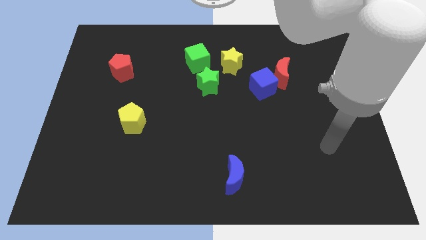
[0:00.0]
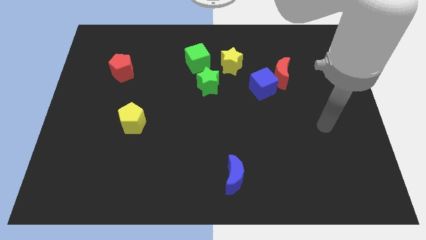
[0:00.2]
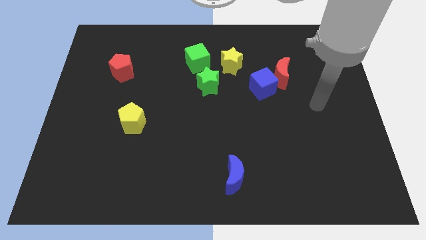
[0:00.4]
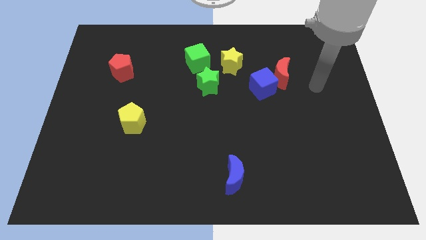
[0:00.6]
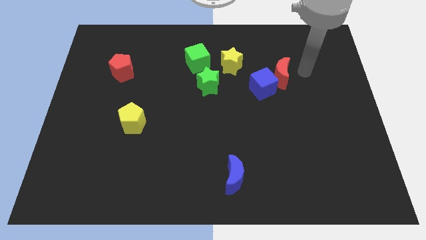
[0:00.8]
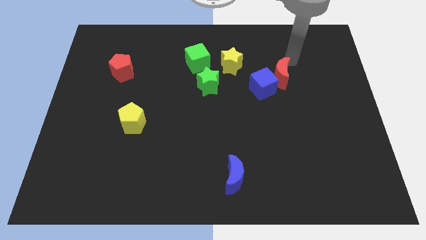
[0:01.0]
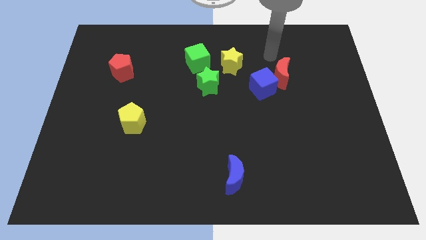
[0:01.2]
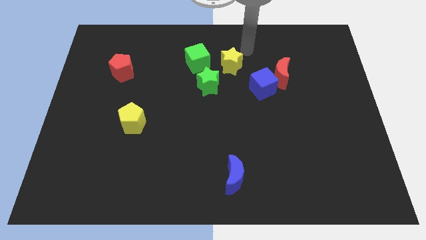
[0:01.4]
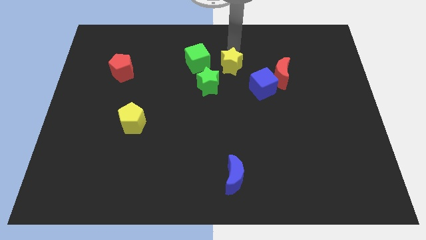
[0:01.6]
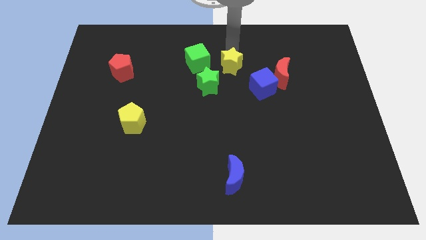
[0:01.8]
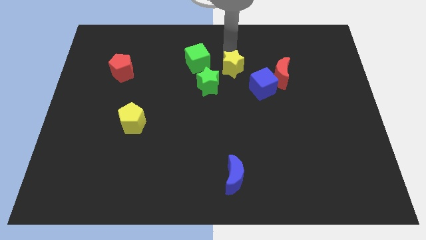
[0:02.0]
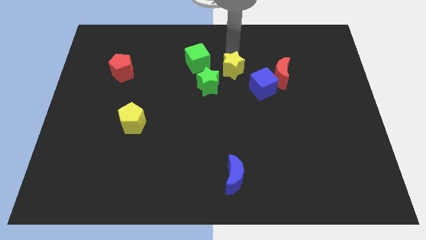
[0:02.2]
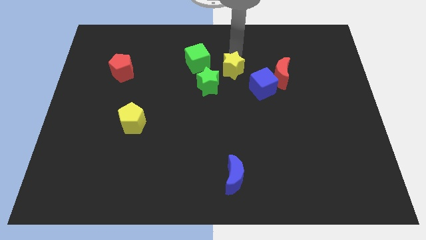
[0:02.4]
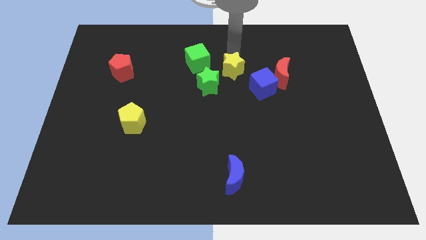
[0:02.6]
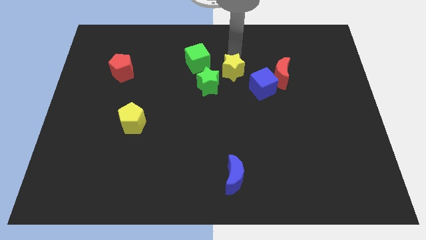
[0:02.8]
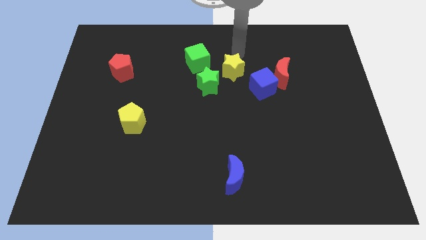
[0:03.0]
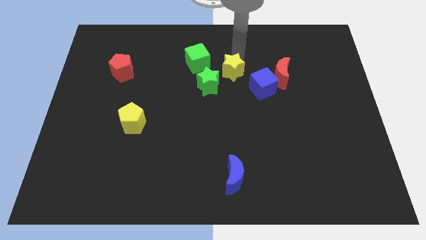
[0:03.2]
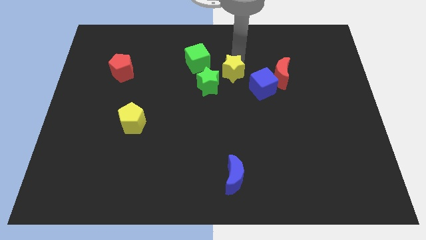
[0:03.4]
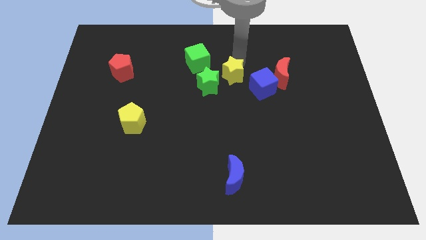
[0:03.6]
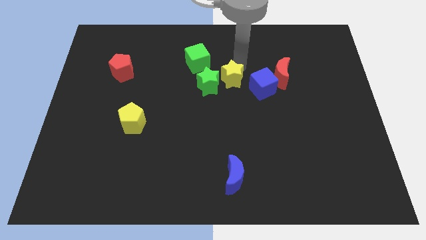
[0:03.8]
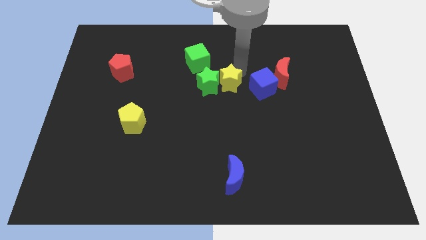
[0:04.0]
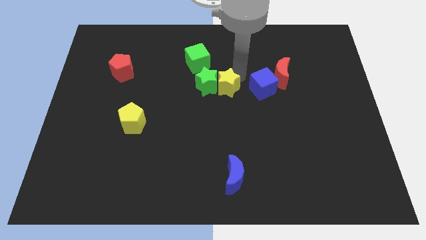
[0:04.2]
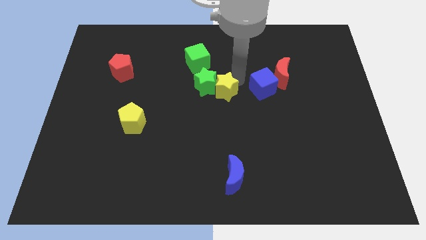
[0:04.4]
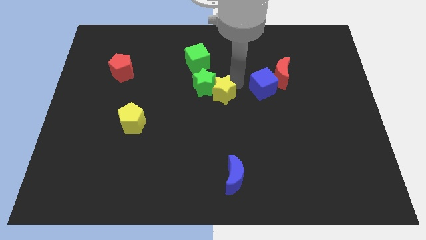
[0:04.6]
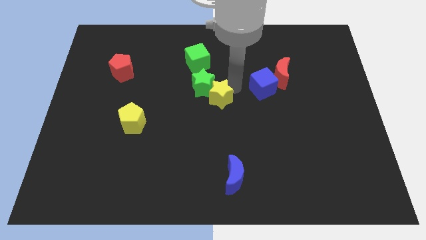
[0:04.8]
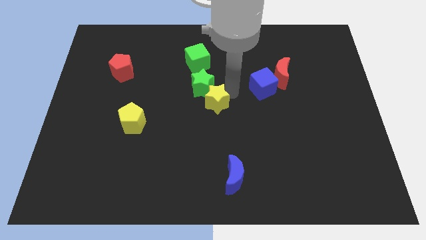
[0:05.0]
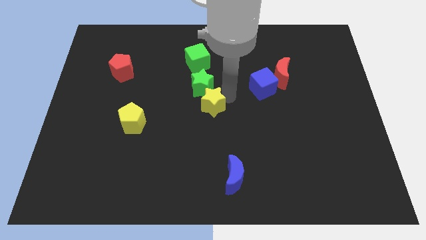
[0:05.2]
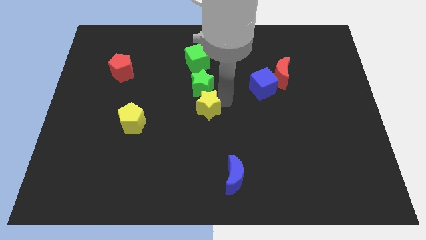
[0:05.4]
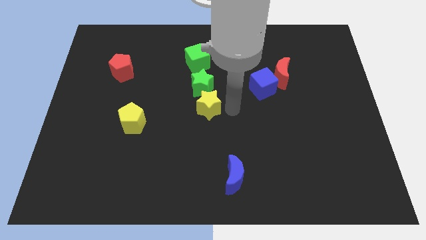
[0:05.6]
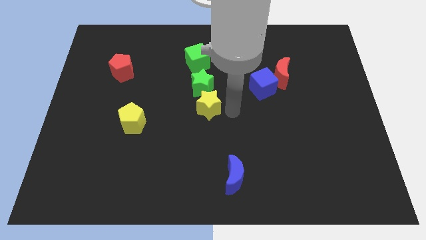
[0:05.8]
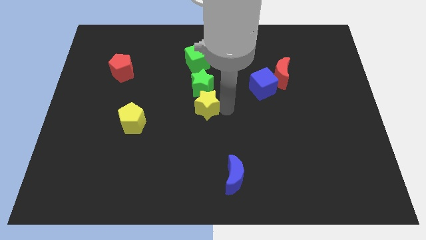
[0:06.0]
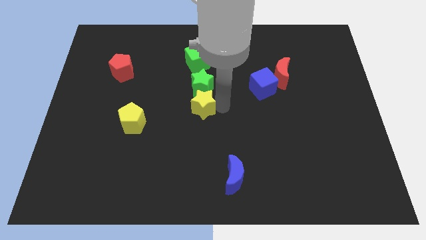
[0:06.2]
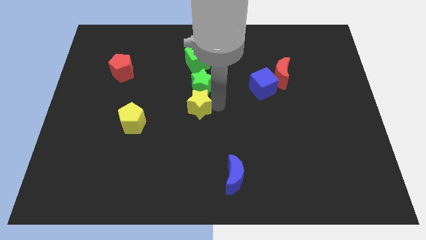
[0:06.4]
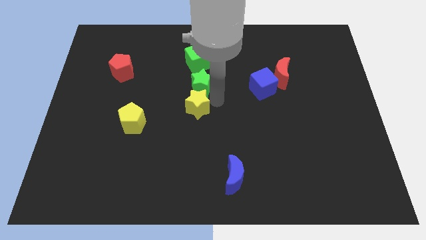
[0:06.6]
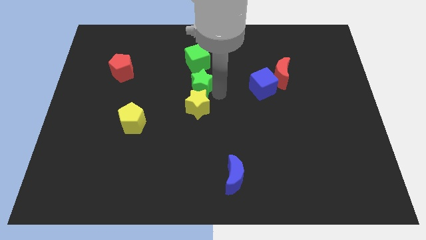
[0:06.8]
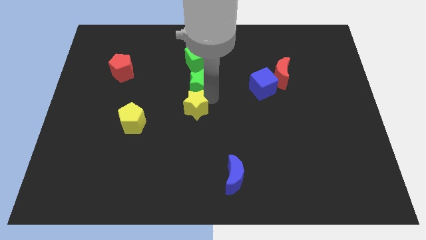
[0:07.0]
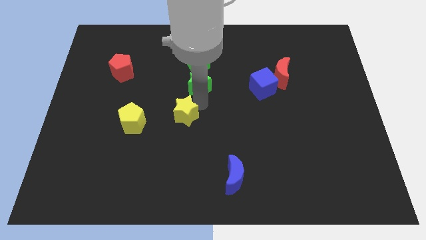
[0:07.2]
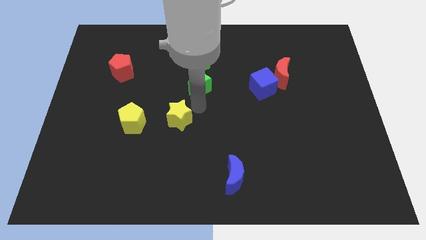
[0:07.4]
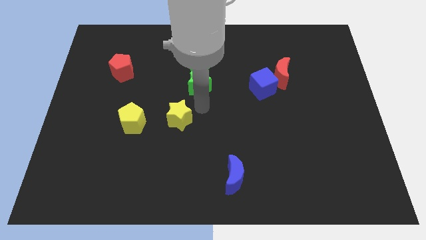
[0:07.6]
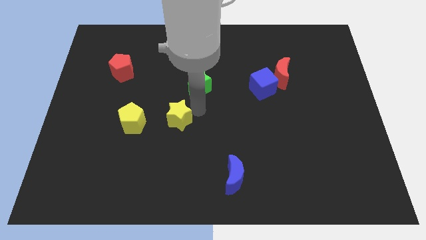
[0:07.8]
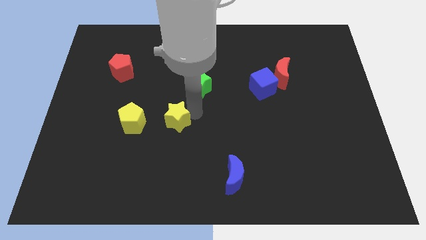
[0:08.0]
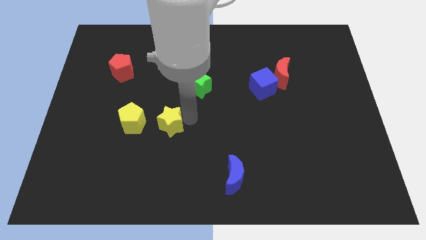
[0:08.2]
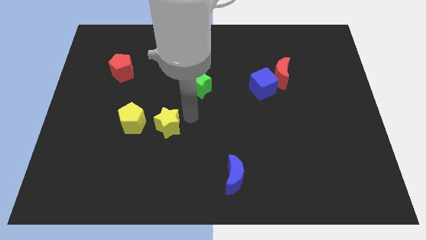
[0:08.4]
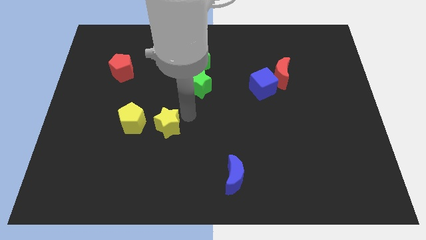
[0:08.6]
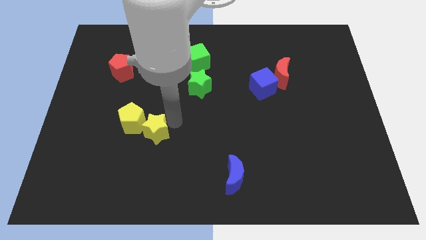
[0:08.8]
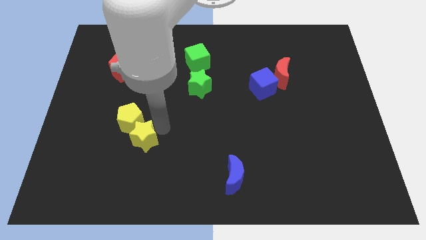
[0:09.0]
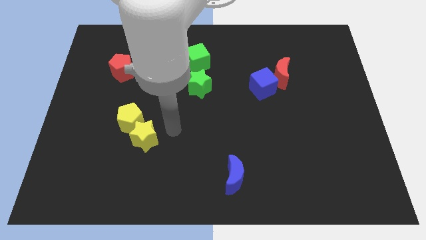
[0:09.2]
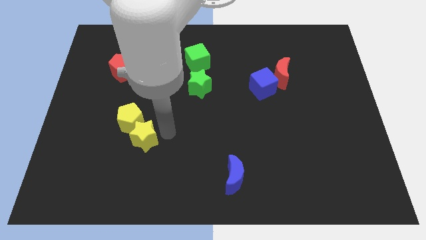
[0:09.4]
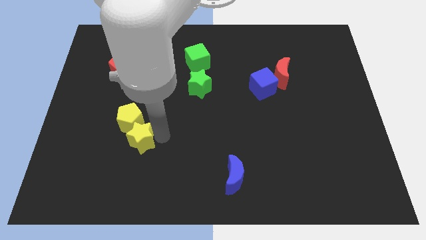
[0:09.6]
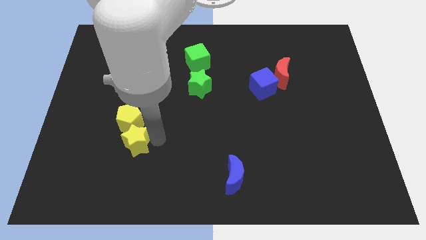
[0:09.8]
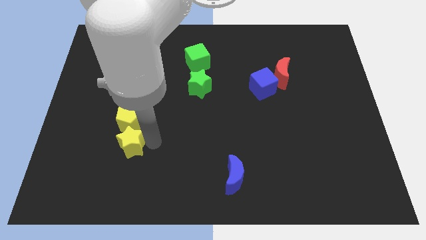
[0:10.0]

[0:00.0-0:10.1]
push the yellow star diagonally down and to the left of the yellow pentagon

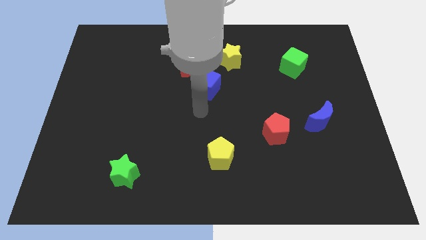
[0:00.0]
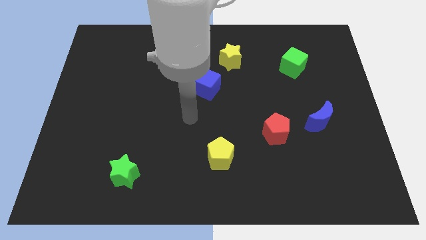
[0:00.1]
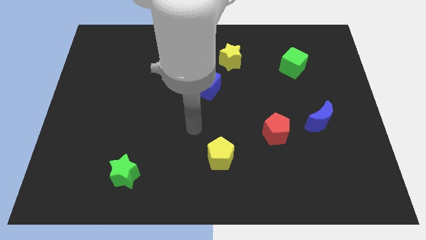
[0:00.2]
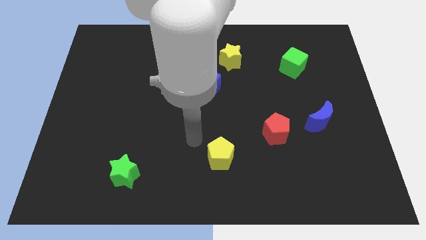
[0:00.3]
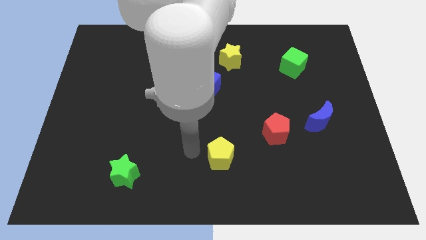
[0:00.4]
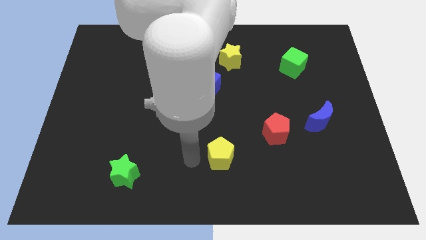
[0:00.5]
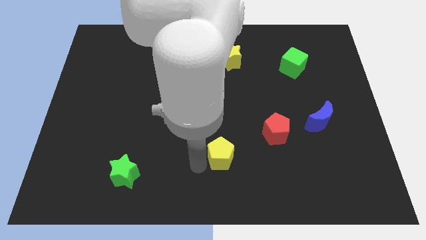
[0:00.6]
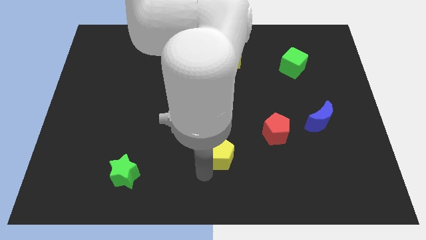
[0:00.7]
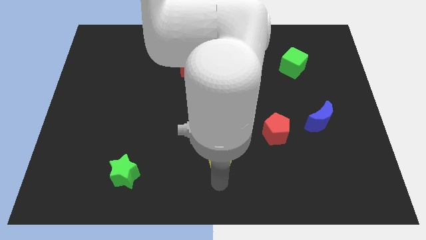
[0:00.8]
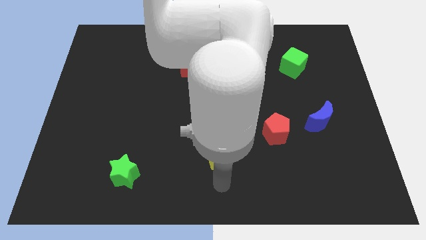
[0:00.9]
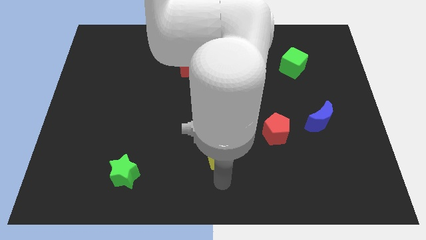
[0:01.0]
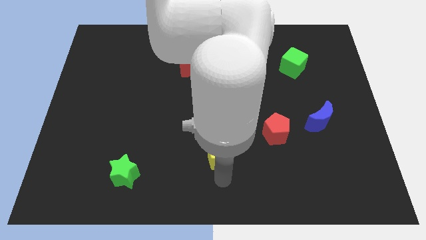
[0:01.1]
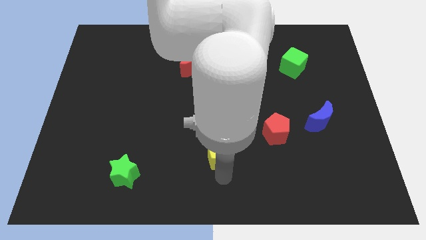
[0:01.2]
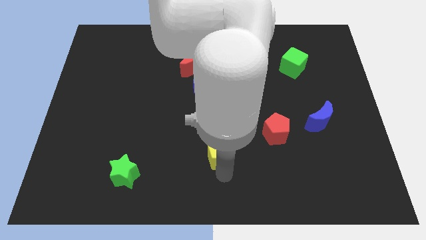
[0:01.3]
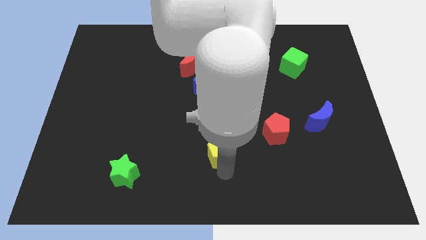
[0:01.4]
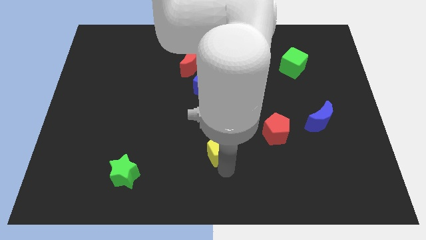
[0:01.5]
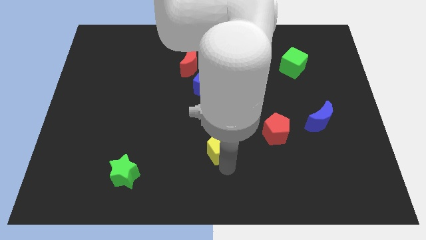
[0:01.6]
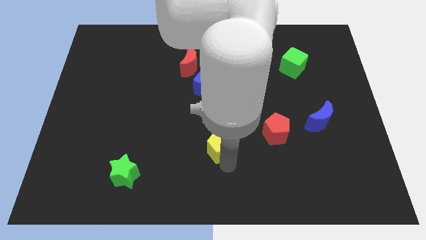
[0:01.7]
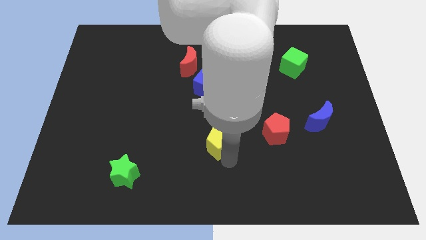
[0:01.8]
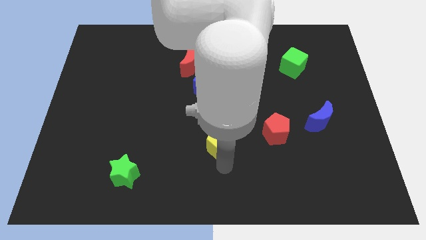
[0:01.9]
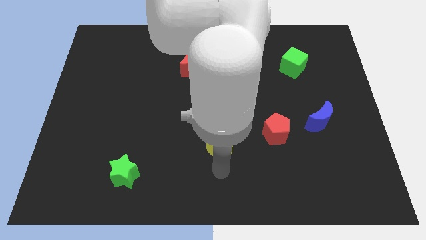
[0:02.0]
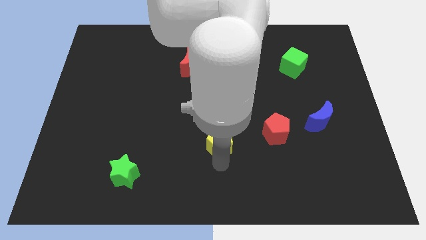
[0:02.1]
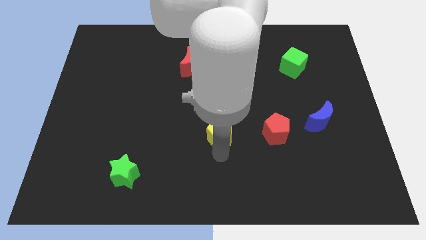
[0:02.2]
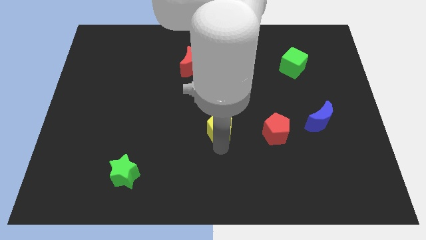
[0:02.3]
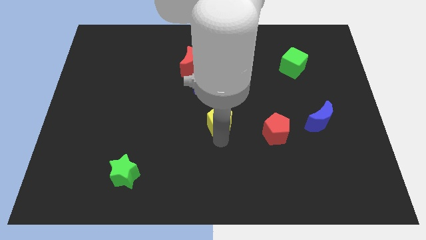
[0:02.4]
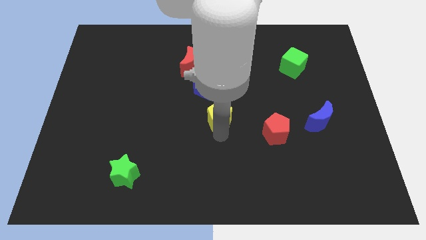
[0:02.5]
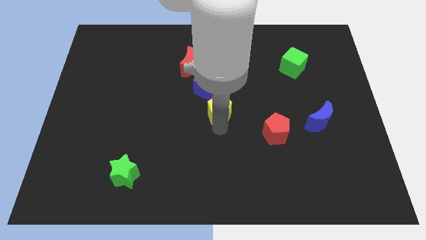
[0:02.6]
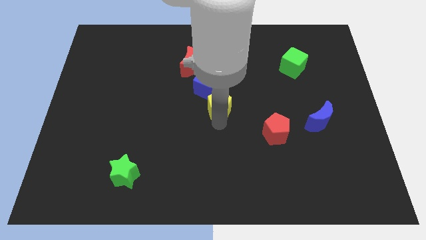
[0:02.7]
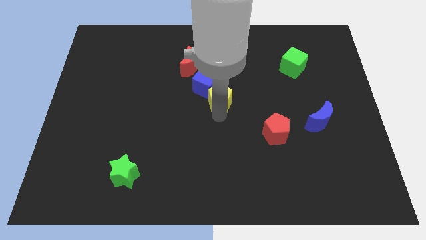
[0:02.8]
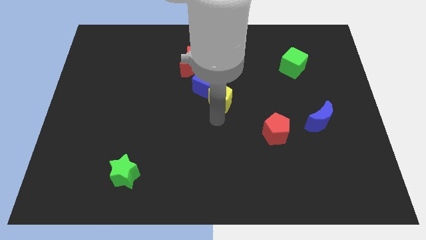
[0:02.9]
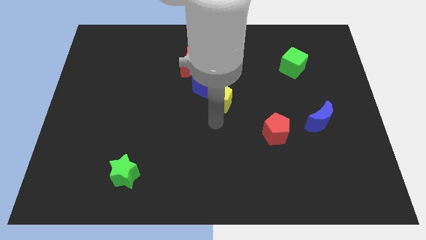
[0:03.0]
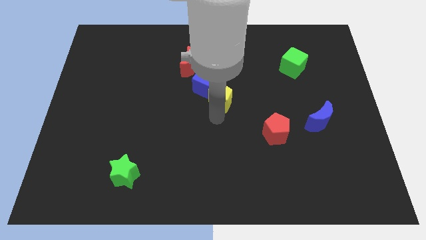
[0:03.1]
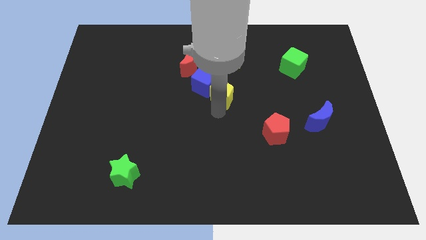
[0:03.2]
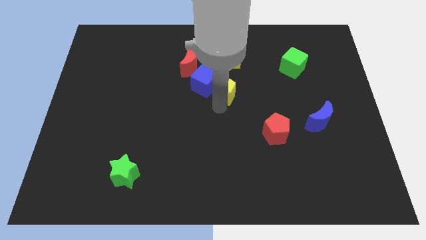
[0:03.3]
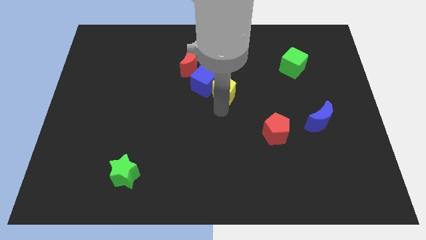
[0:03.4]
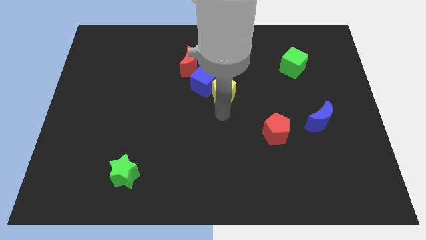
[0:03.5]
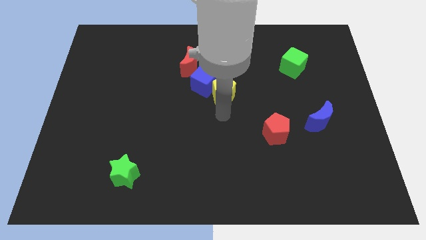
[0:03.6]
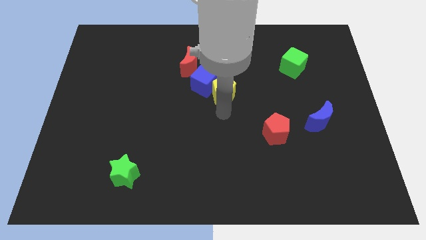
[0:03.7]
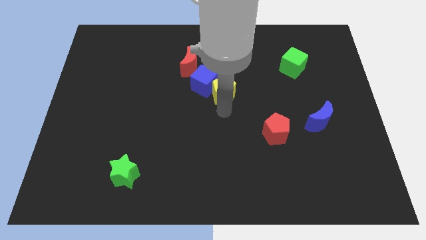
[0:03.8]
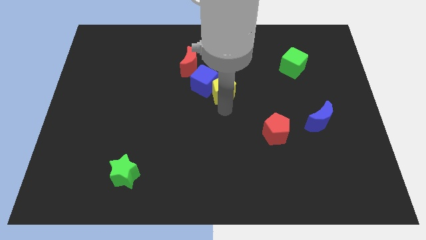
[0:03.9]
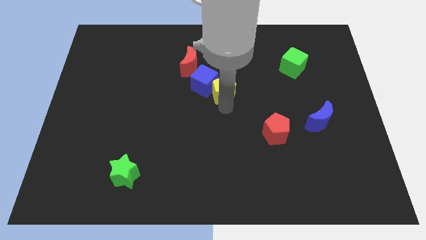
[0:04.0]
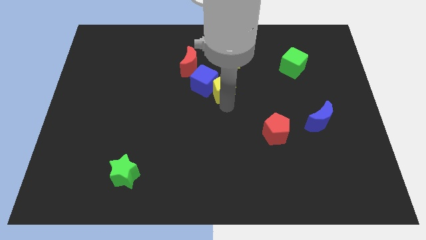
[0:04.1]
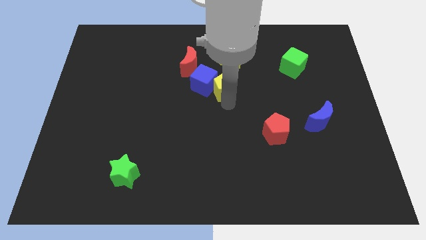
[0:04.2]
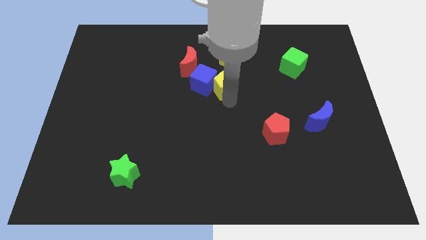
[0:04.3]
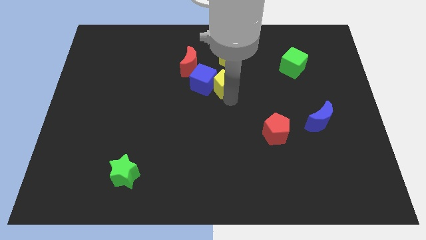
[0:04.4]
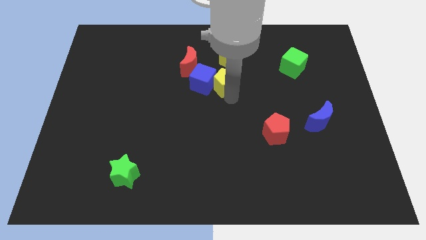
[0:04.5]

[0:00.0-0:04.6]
move the yellow pentagon to the bottom left side of the yellow star
